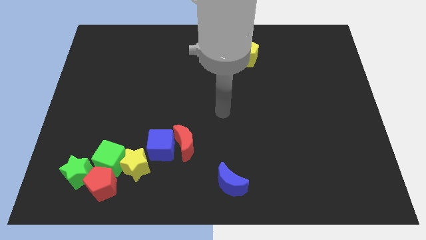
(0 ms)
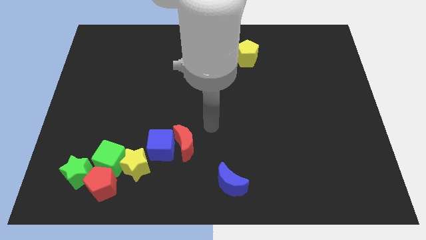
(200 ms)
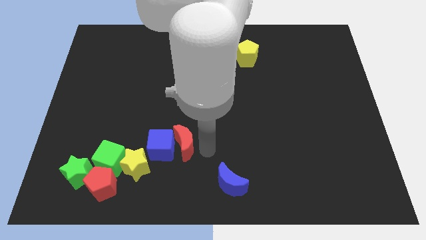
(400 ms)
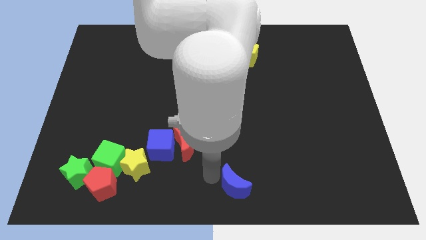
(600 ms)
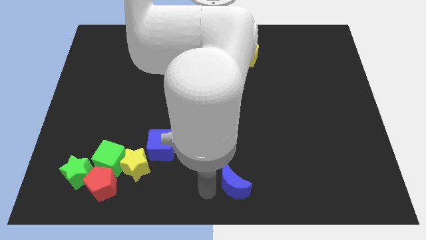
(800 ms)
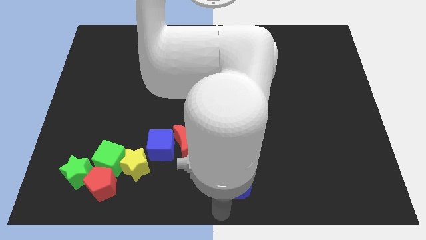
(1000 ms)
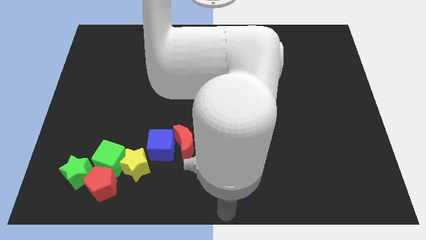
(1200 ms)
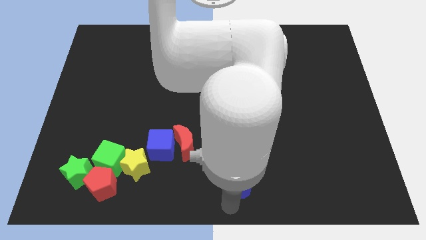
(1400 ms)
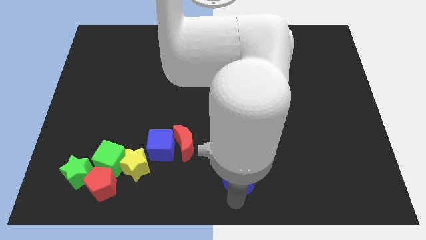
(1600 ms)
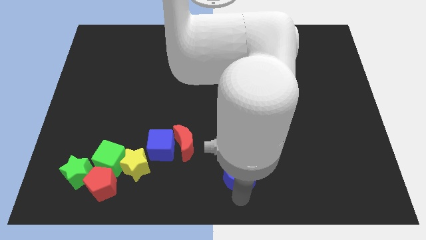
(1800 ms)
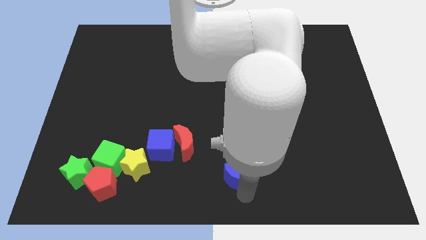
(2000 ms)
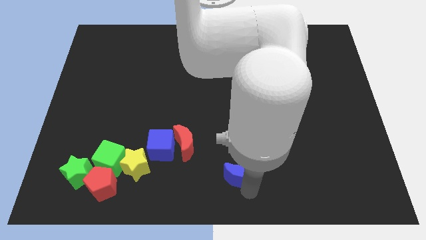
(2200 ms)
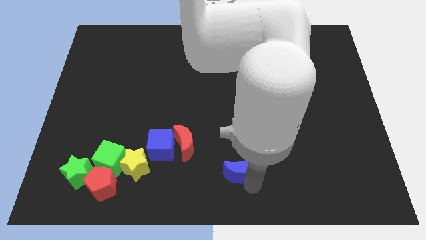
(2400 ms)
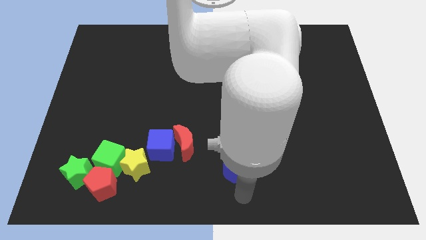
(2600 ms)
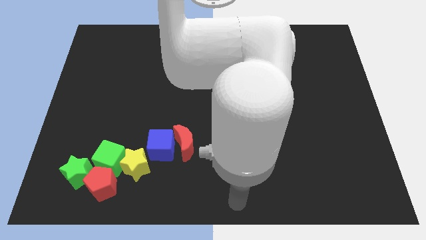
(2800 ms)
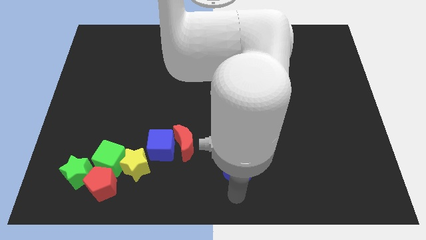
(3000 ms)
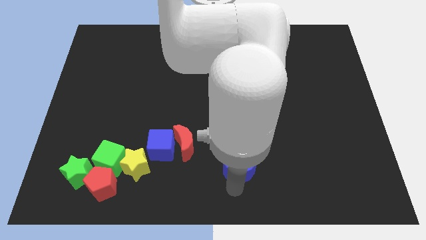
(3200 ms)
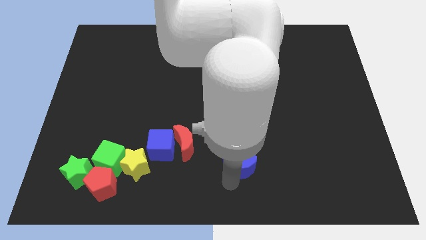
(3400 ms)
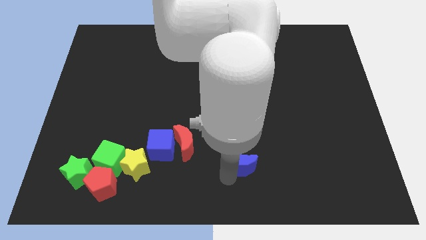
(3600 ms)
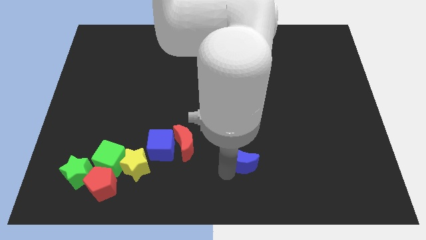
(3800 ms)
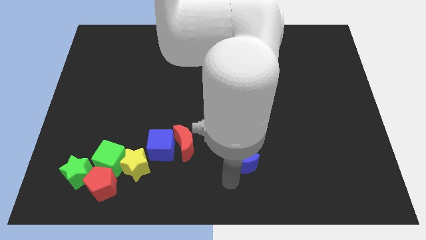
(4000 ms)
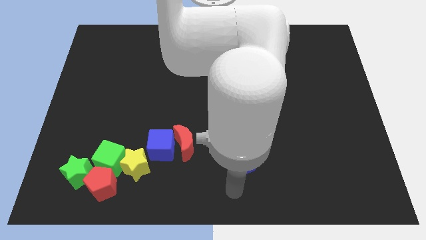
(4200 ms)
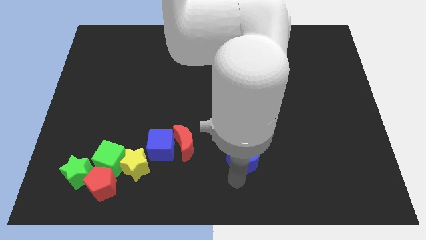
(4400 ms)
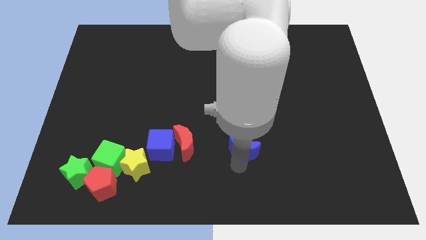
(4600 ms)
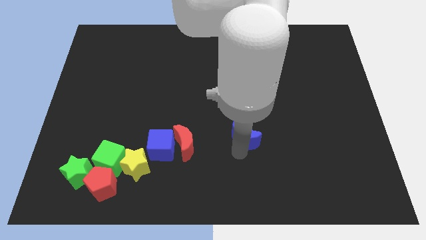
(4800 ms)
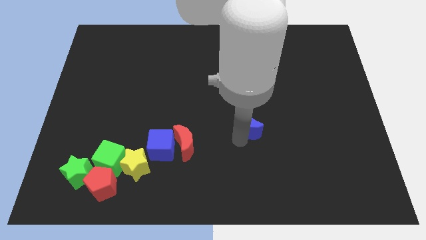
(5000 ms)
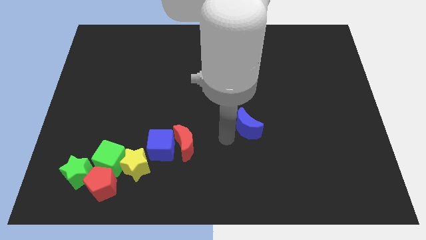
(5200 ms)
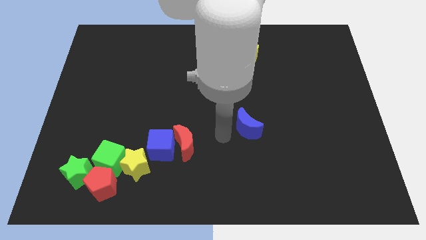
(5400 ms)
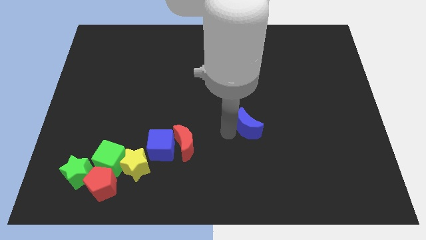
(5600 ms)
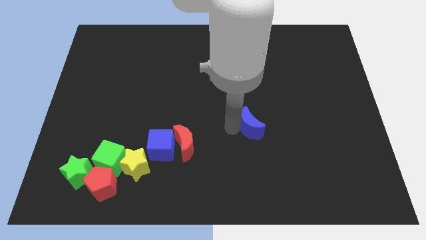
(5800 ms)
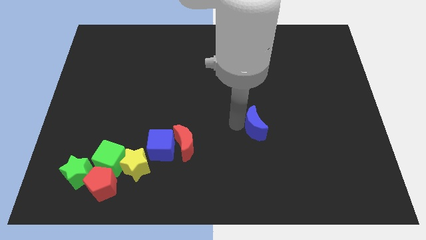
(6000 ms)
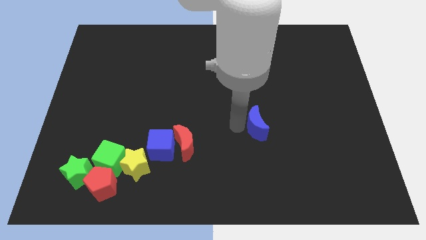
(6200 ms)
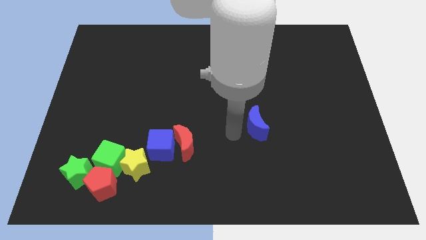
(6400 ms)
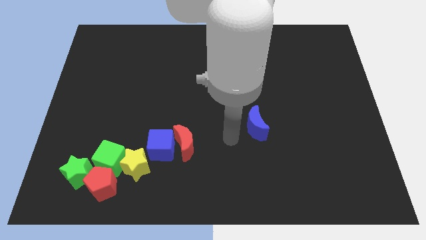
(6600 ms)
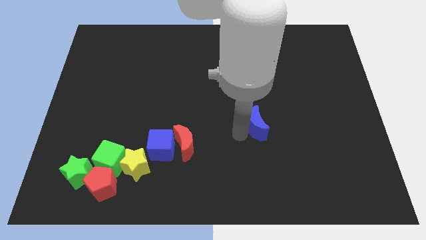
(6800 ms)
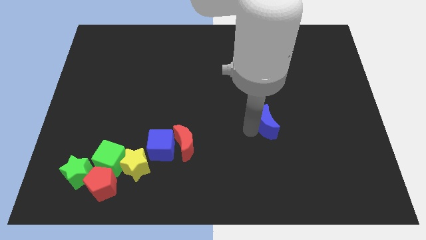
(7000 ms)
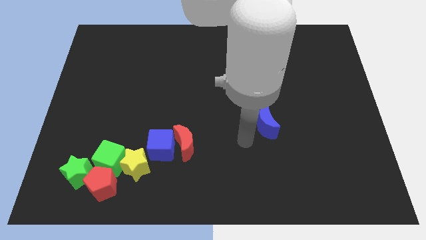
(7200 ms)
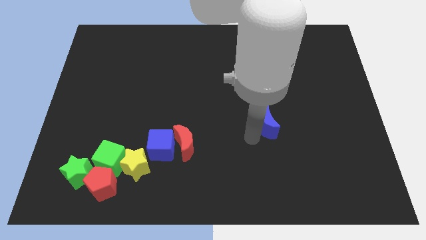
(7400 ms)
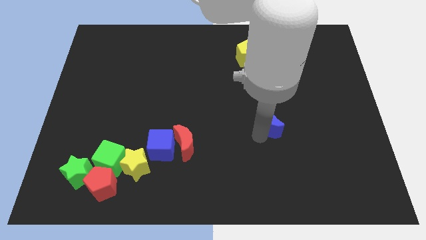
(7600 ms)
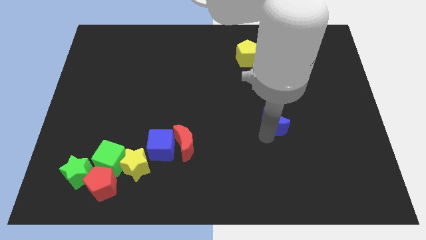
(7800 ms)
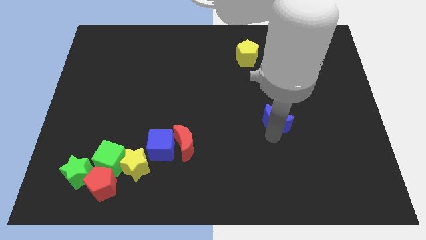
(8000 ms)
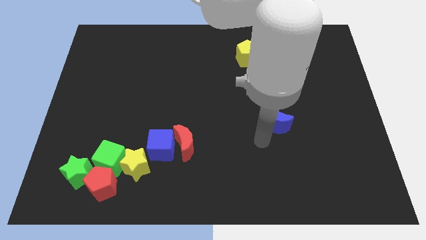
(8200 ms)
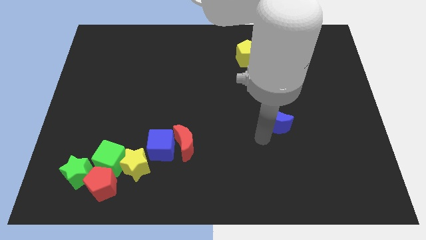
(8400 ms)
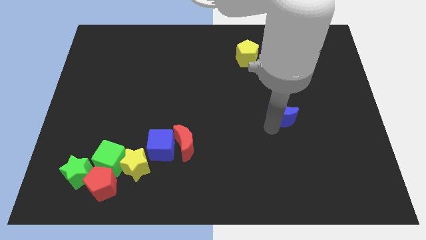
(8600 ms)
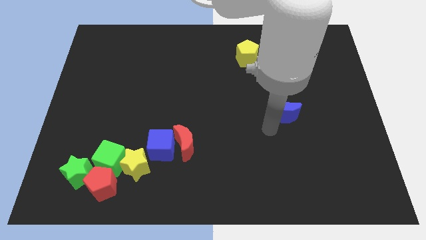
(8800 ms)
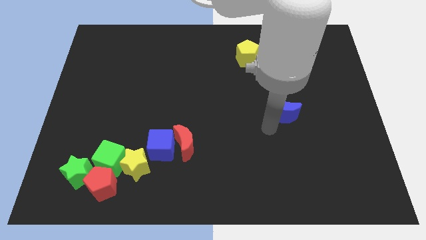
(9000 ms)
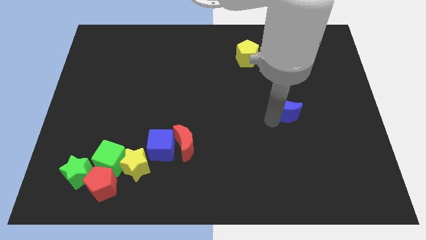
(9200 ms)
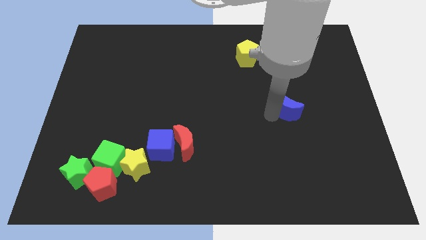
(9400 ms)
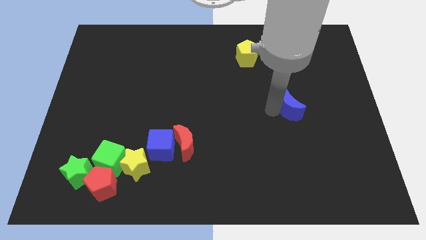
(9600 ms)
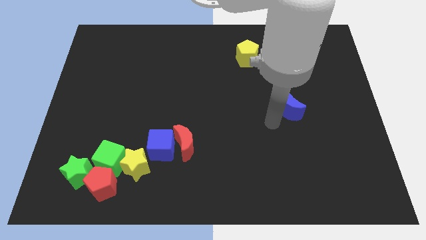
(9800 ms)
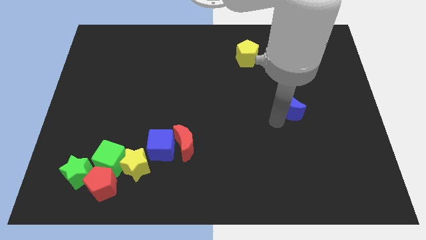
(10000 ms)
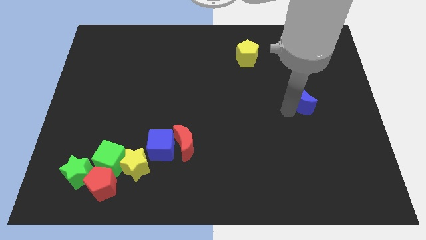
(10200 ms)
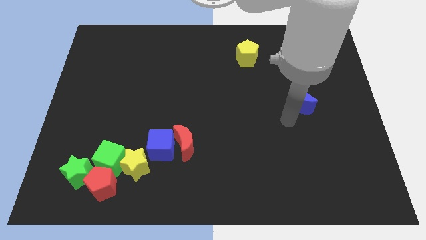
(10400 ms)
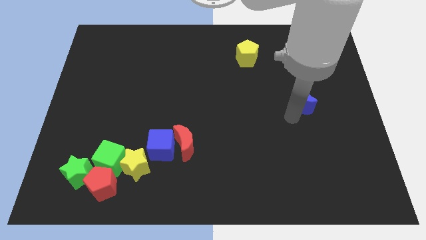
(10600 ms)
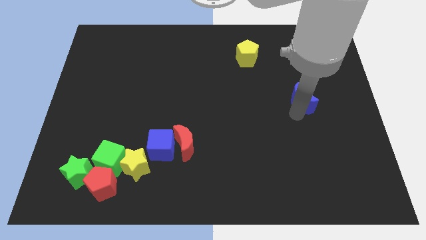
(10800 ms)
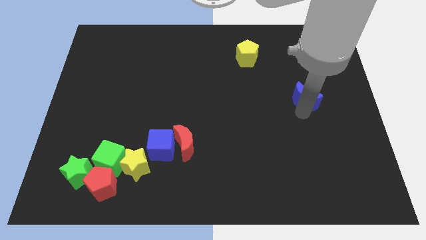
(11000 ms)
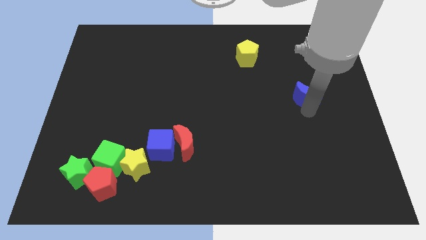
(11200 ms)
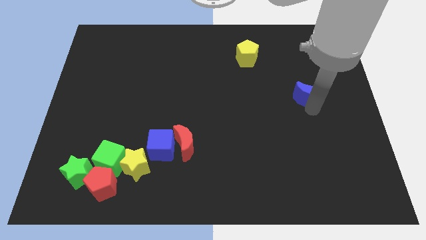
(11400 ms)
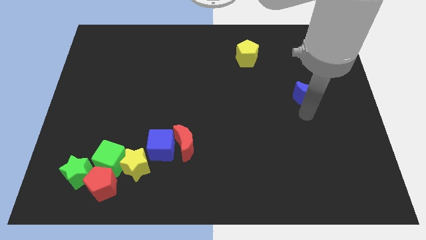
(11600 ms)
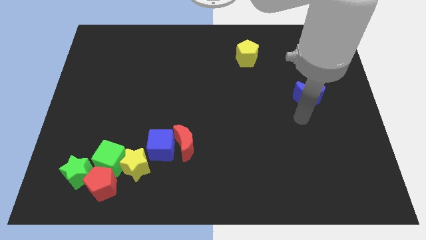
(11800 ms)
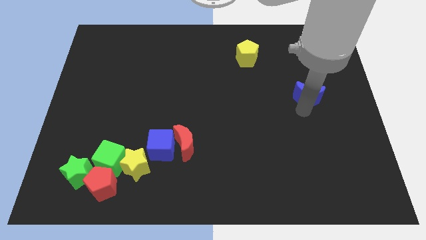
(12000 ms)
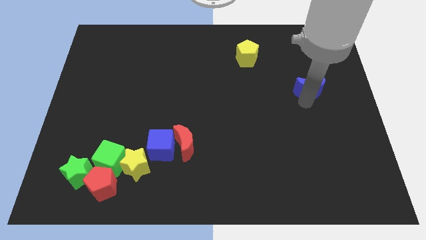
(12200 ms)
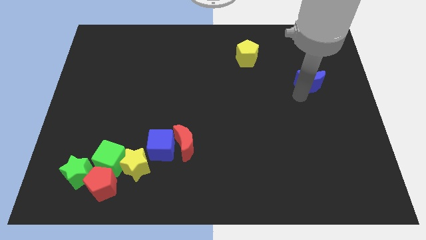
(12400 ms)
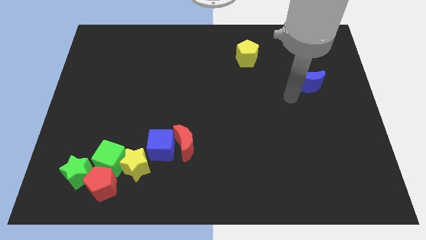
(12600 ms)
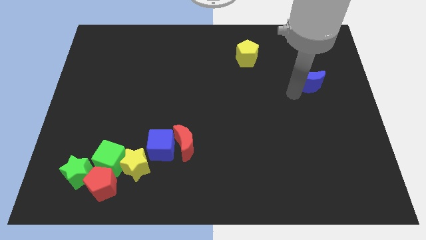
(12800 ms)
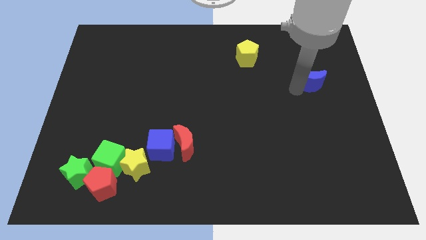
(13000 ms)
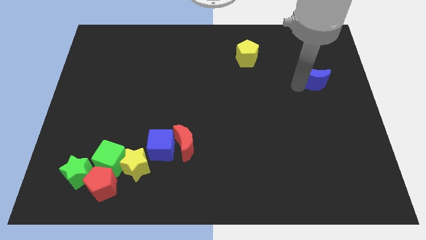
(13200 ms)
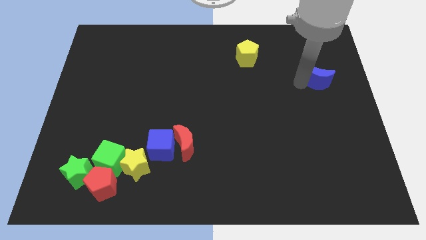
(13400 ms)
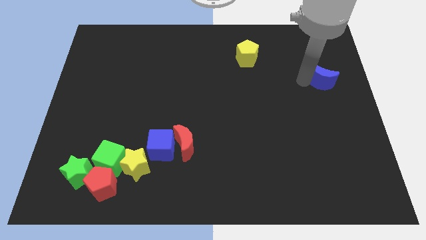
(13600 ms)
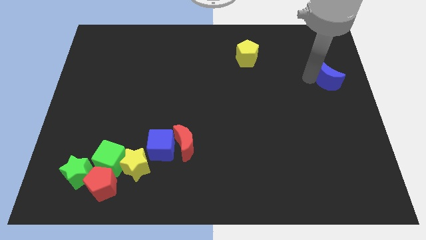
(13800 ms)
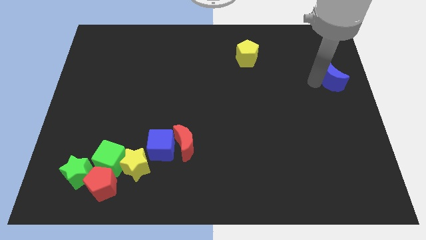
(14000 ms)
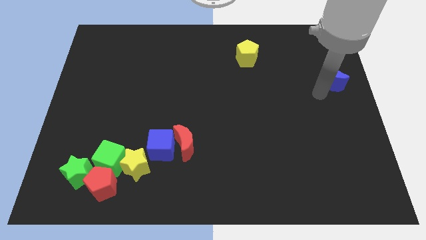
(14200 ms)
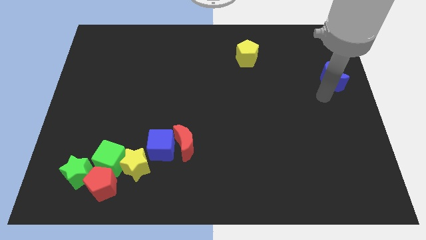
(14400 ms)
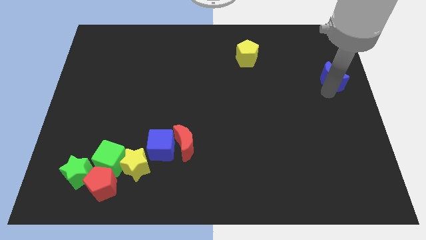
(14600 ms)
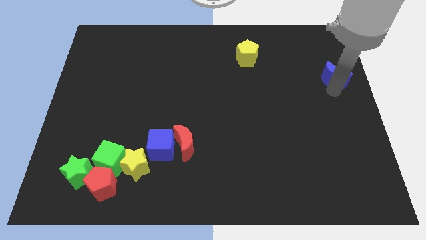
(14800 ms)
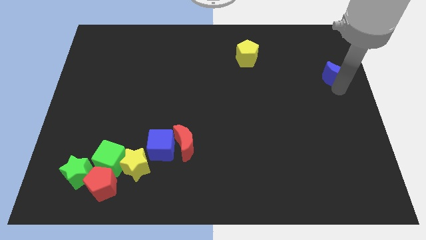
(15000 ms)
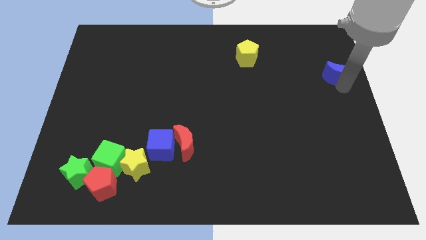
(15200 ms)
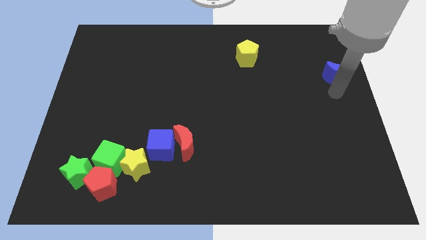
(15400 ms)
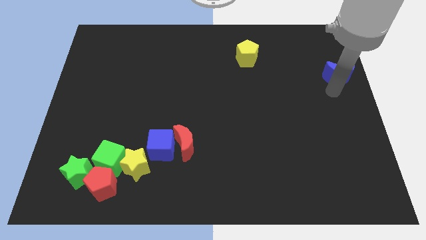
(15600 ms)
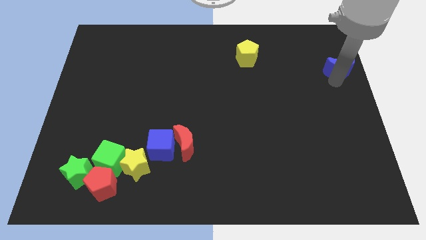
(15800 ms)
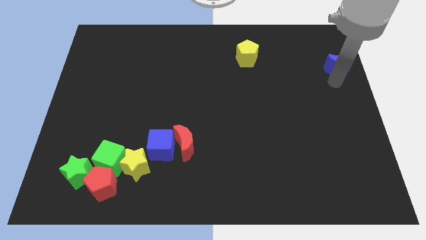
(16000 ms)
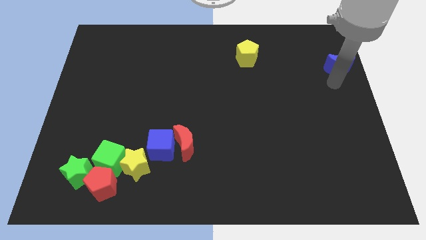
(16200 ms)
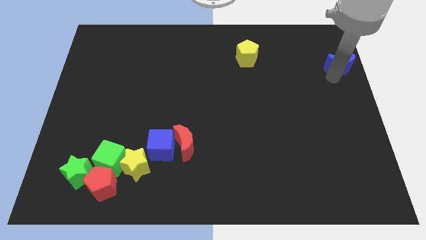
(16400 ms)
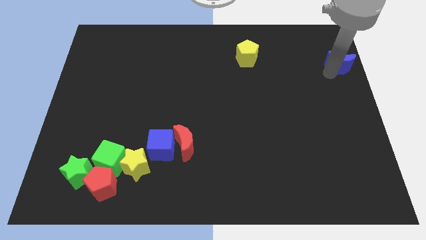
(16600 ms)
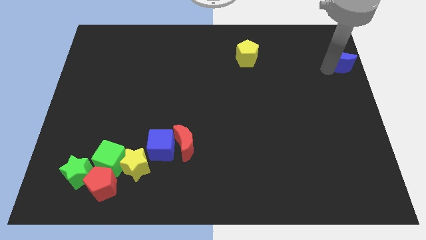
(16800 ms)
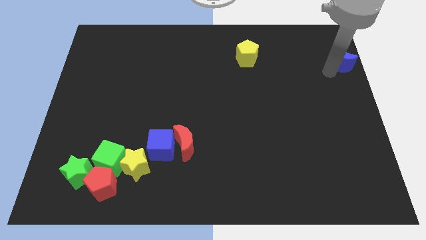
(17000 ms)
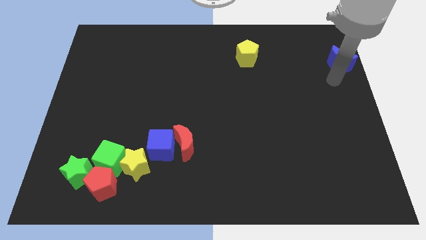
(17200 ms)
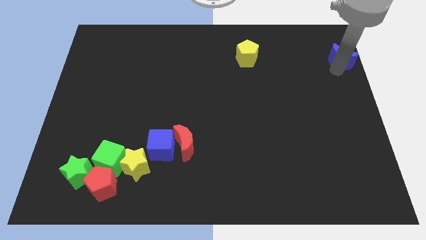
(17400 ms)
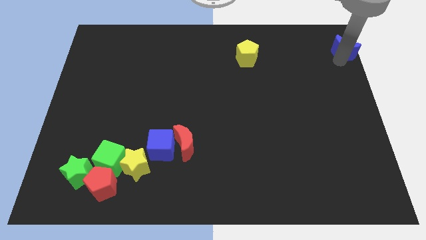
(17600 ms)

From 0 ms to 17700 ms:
push the blue moon to the top right corner
